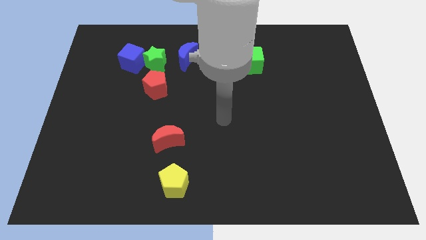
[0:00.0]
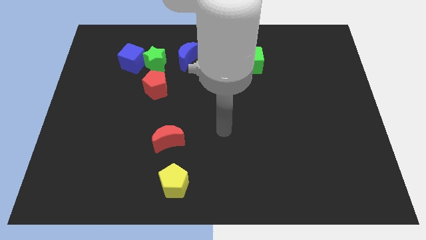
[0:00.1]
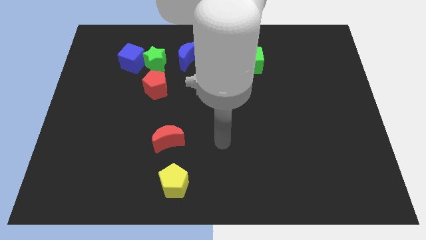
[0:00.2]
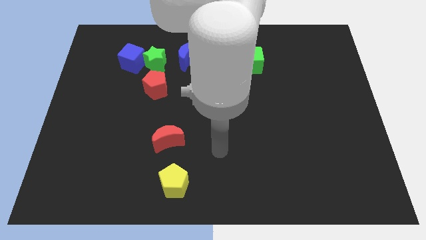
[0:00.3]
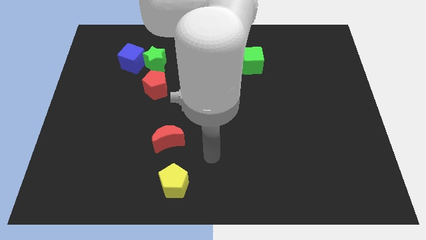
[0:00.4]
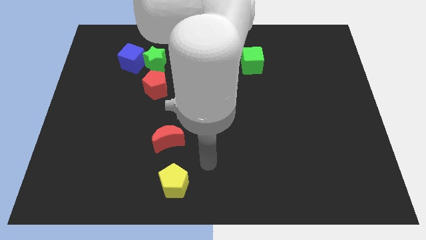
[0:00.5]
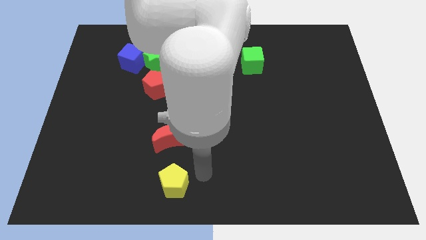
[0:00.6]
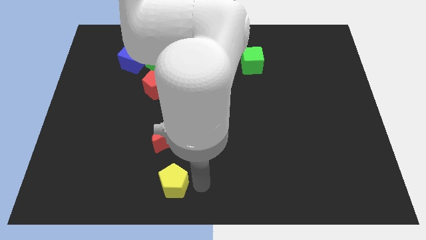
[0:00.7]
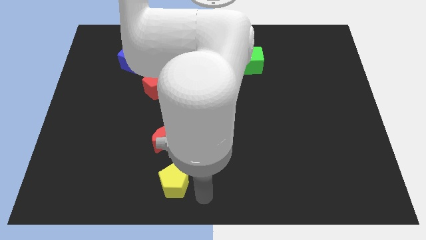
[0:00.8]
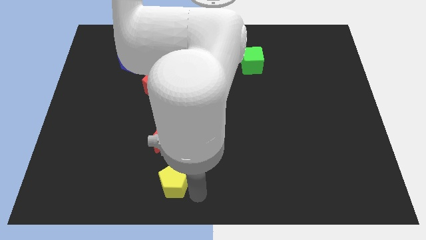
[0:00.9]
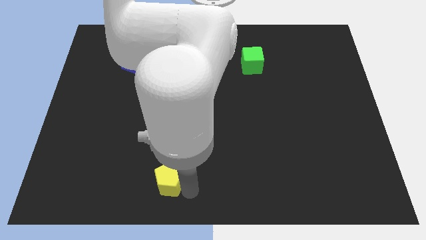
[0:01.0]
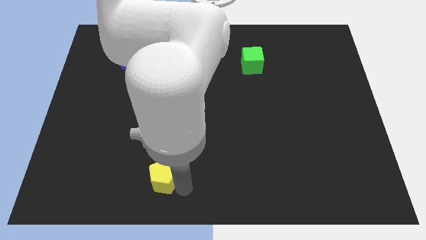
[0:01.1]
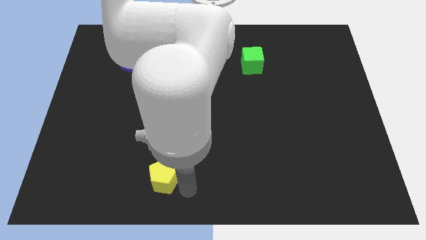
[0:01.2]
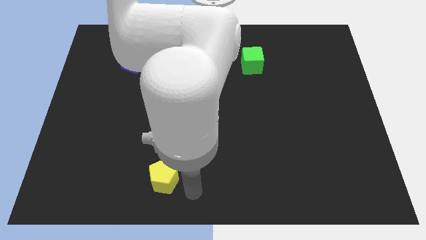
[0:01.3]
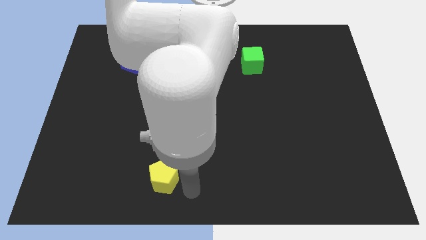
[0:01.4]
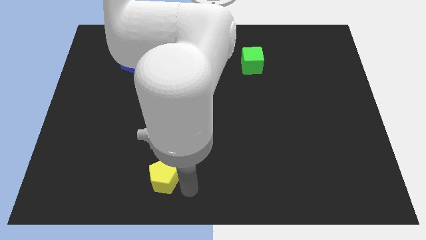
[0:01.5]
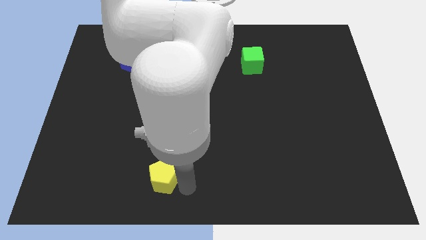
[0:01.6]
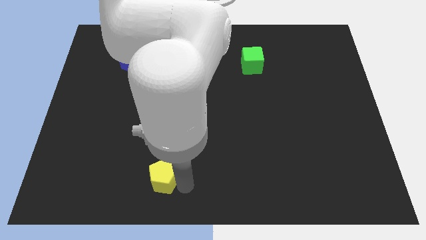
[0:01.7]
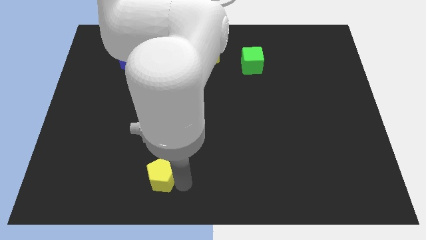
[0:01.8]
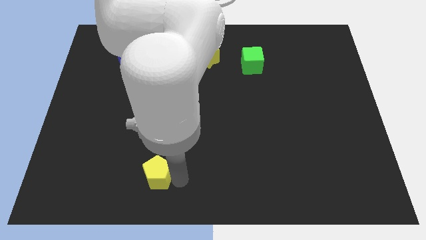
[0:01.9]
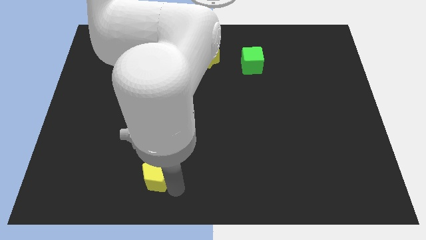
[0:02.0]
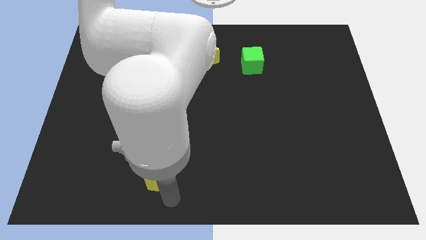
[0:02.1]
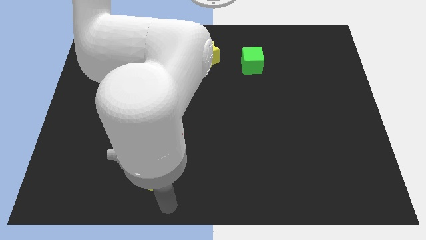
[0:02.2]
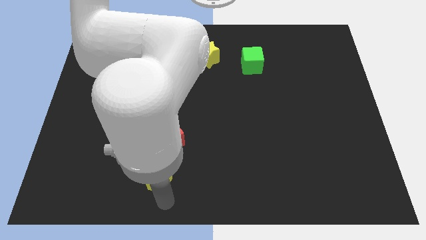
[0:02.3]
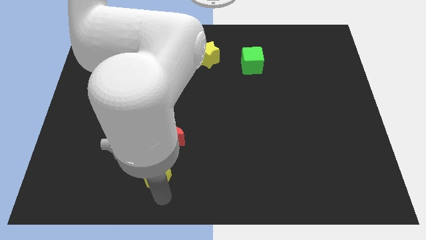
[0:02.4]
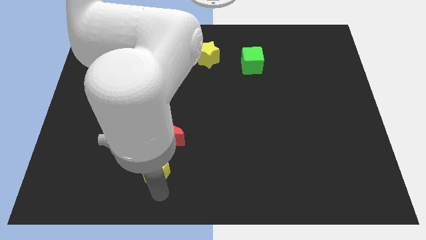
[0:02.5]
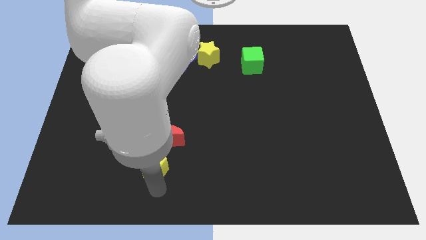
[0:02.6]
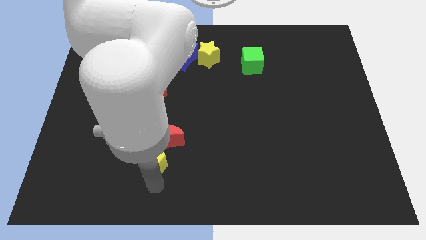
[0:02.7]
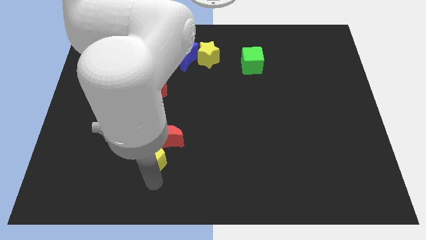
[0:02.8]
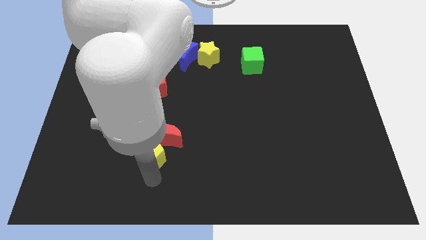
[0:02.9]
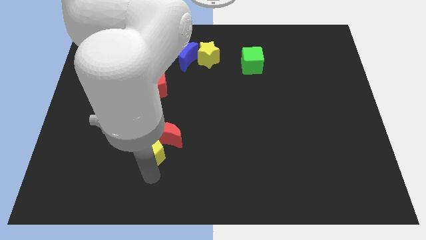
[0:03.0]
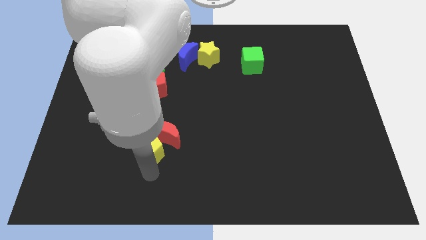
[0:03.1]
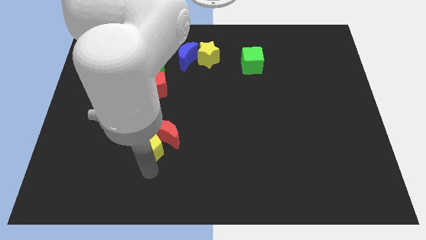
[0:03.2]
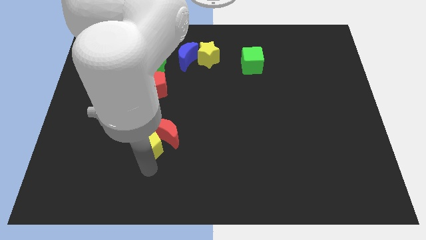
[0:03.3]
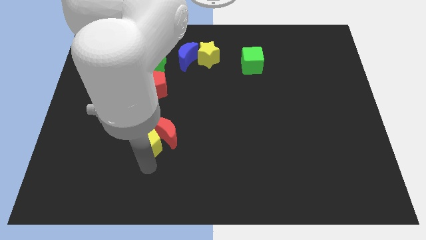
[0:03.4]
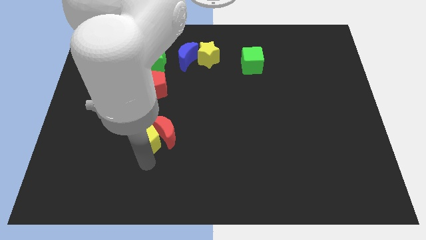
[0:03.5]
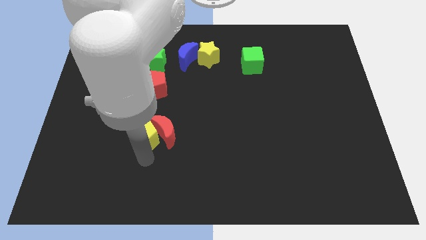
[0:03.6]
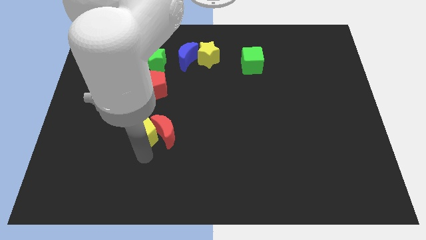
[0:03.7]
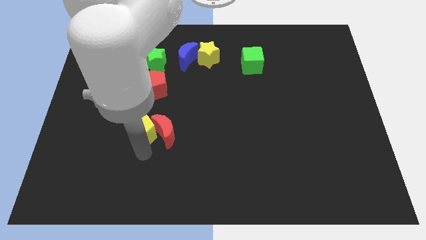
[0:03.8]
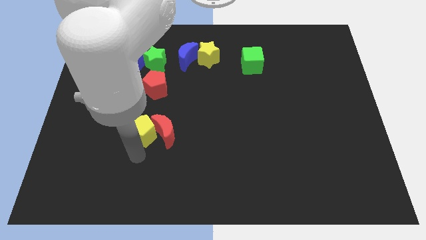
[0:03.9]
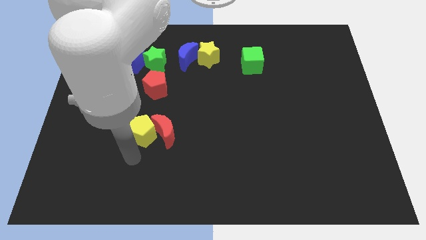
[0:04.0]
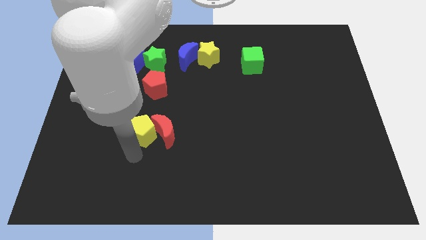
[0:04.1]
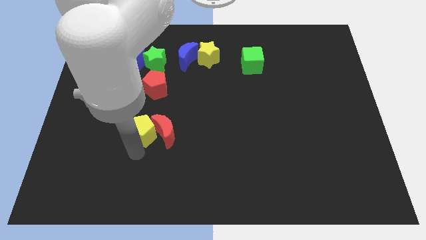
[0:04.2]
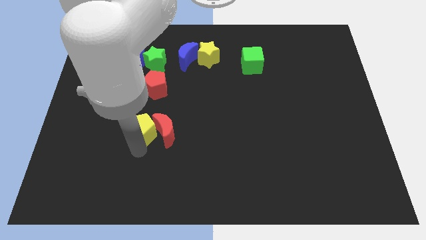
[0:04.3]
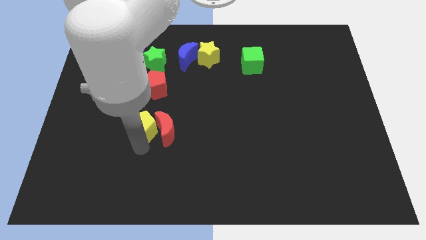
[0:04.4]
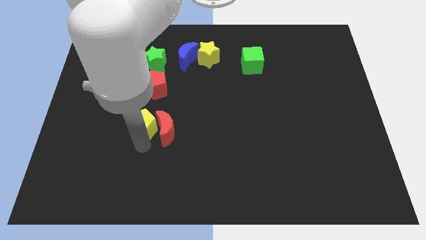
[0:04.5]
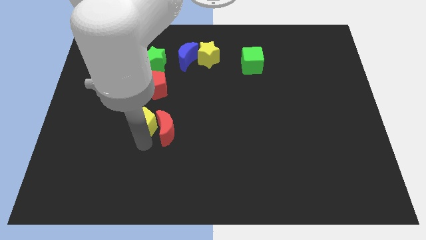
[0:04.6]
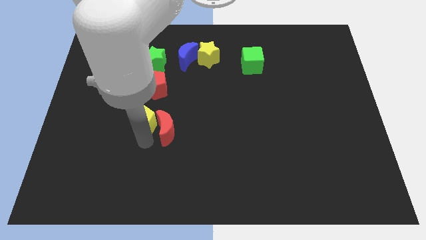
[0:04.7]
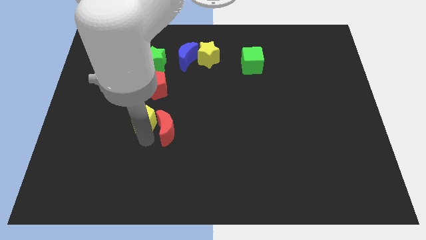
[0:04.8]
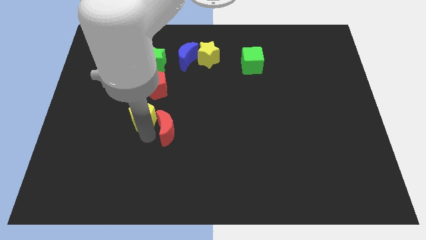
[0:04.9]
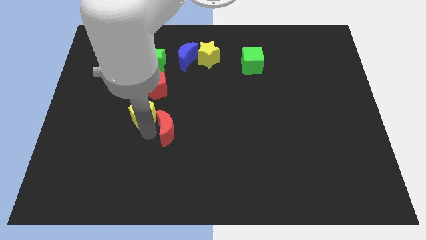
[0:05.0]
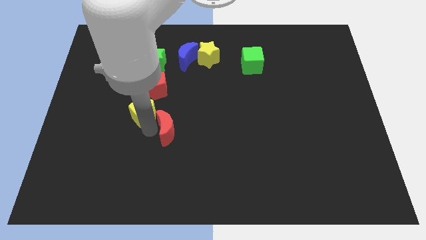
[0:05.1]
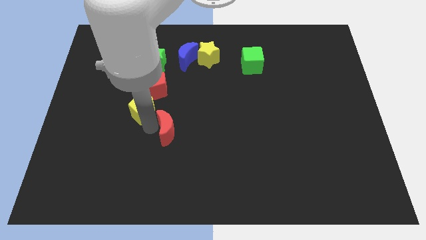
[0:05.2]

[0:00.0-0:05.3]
move the yellow pentagon to the bottom side of the green star

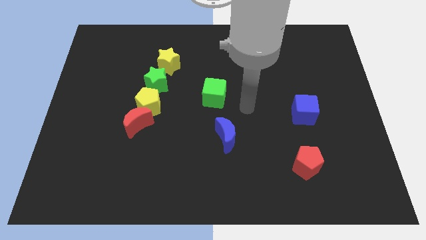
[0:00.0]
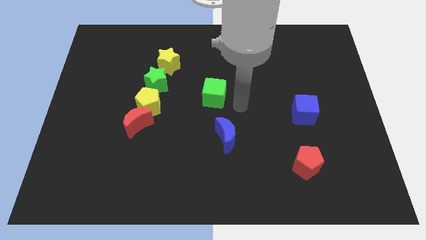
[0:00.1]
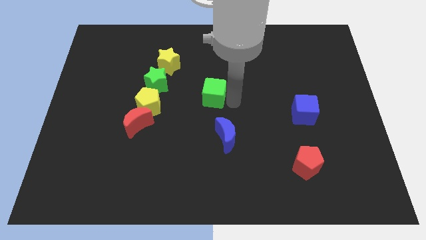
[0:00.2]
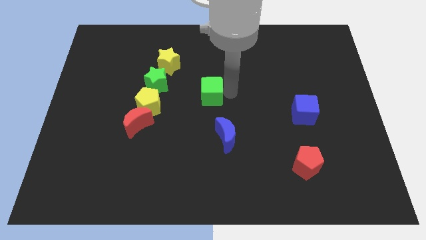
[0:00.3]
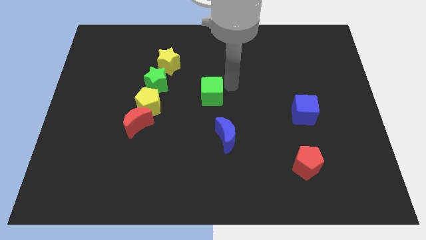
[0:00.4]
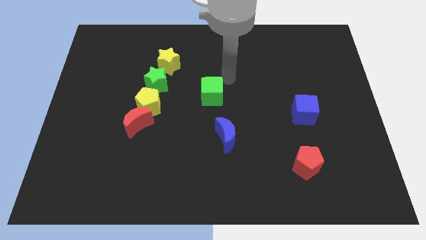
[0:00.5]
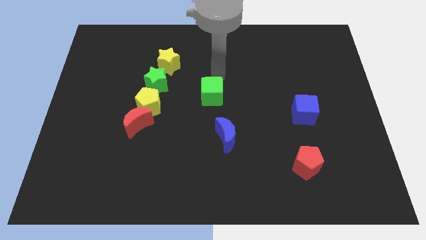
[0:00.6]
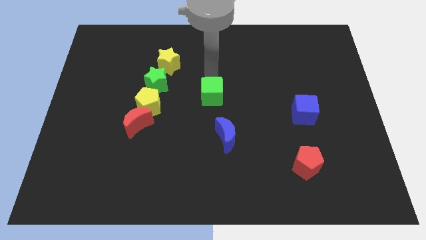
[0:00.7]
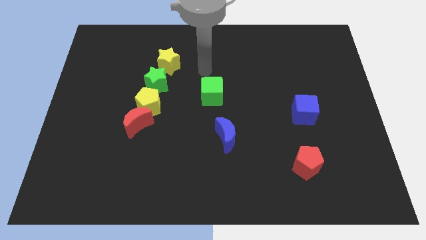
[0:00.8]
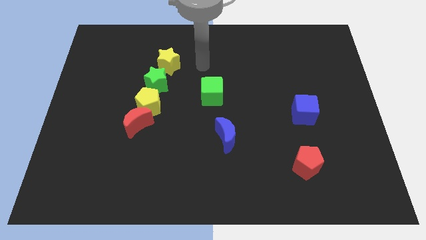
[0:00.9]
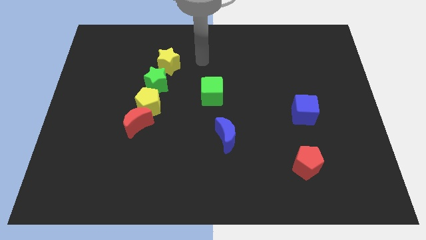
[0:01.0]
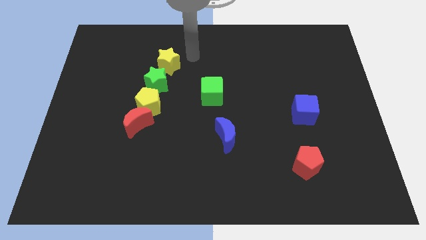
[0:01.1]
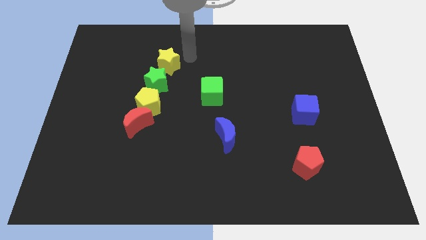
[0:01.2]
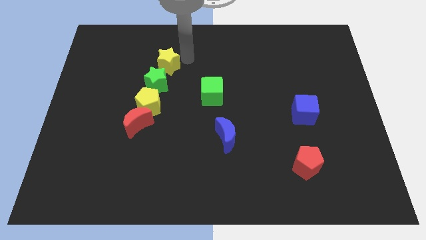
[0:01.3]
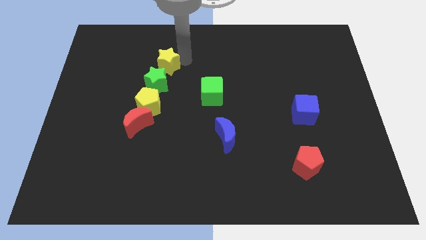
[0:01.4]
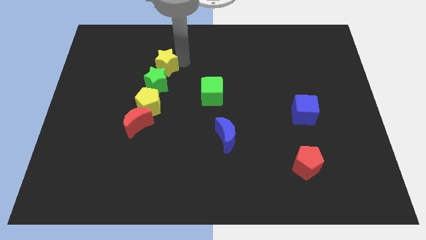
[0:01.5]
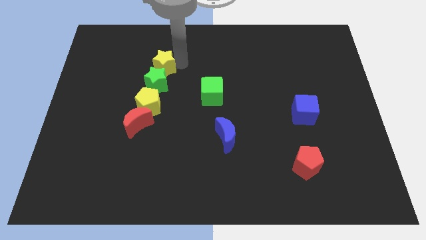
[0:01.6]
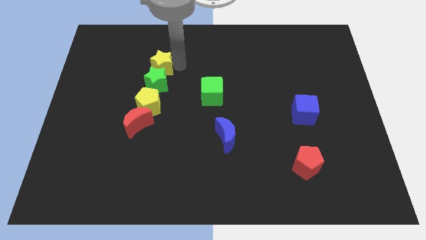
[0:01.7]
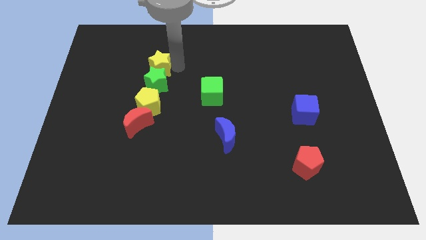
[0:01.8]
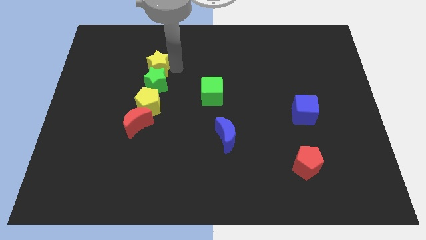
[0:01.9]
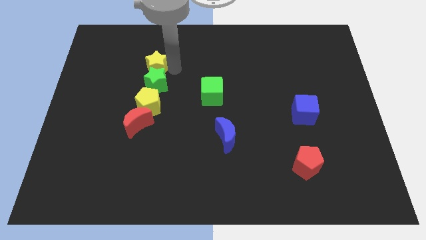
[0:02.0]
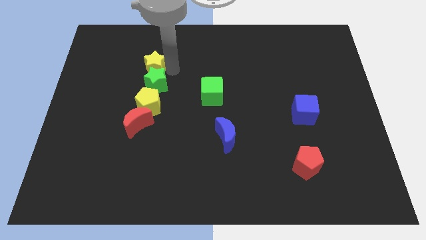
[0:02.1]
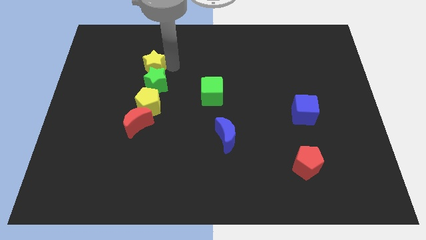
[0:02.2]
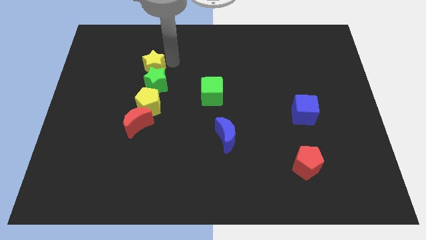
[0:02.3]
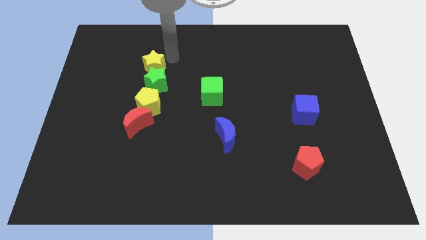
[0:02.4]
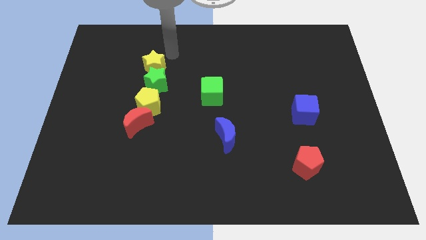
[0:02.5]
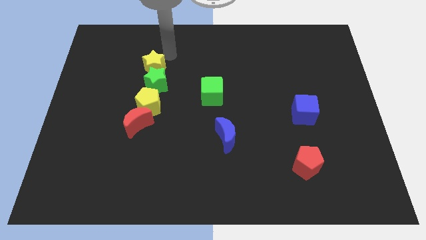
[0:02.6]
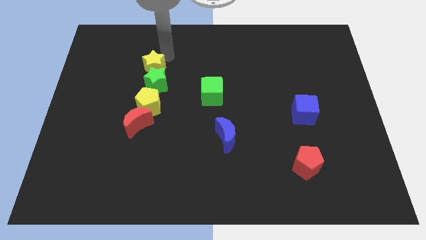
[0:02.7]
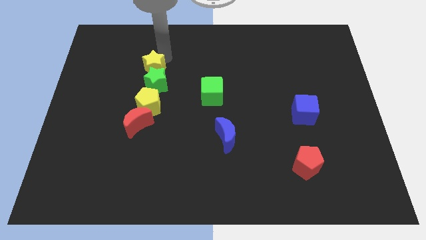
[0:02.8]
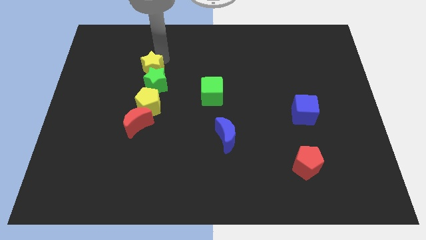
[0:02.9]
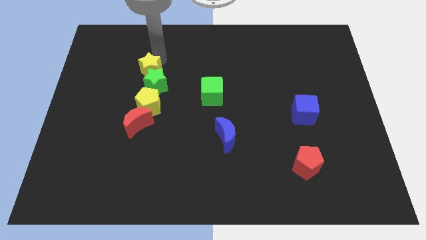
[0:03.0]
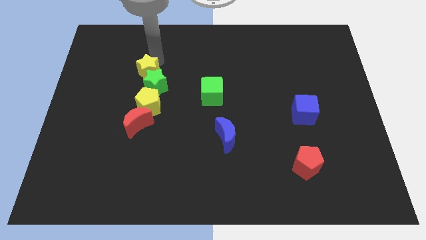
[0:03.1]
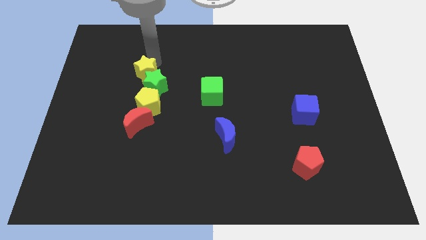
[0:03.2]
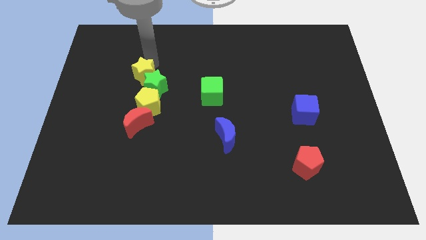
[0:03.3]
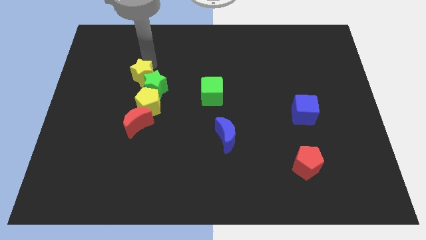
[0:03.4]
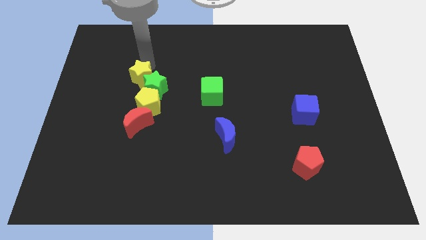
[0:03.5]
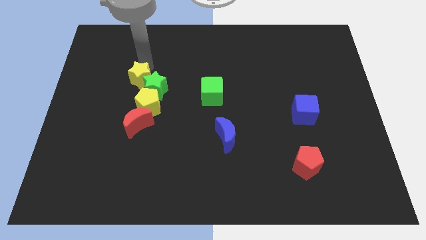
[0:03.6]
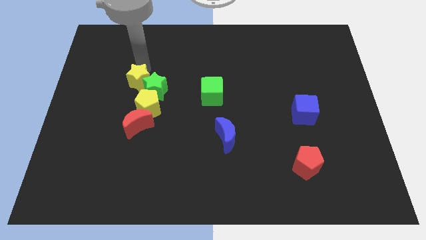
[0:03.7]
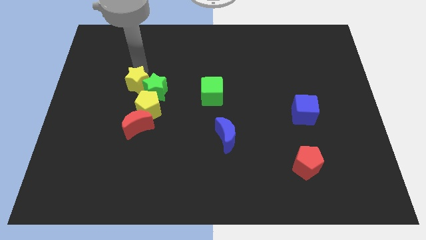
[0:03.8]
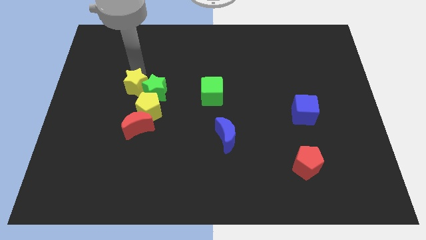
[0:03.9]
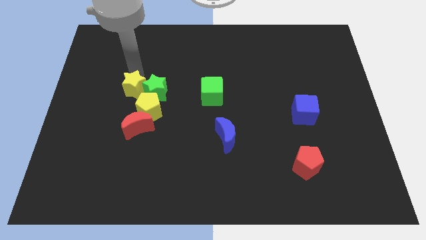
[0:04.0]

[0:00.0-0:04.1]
put the yellow star to the bottom left of the green star
